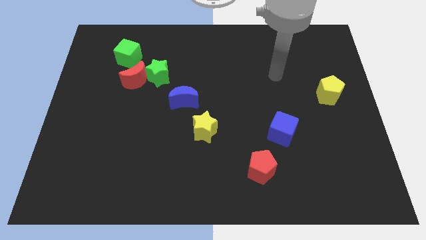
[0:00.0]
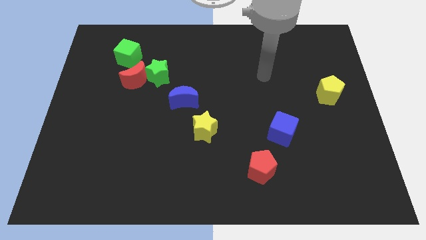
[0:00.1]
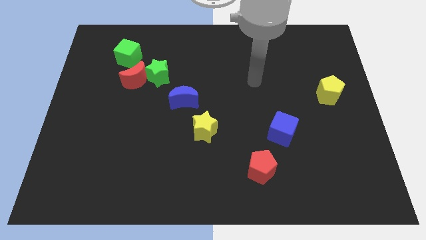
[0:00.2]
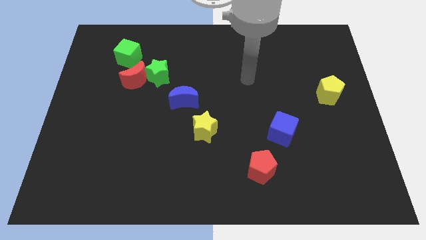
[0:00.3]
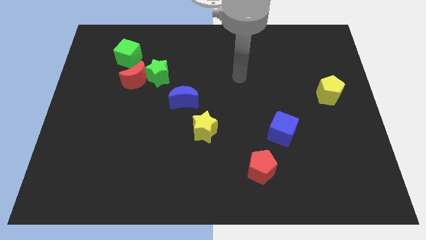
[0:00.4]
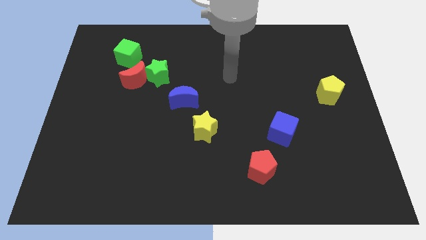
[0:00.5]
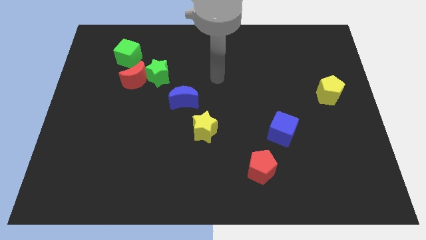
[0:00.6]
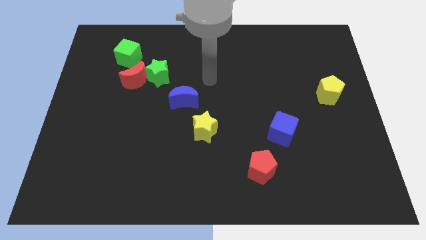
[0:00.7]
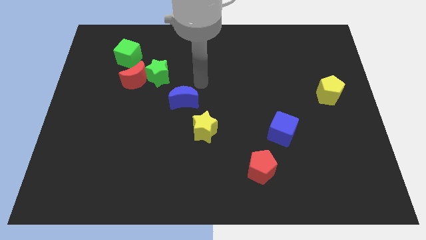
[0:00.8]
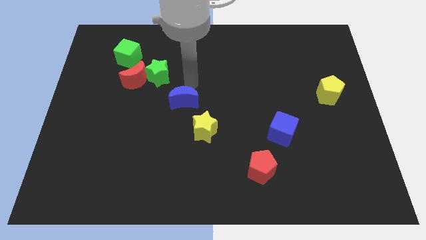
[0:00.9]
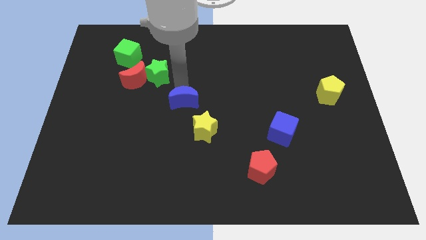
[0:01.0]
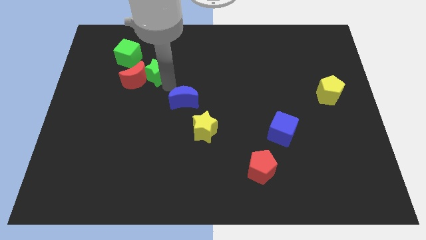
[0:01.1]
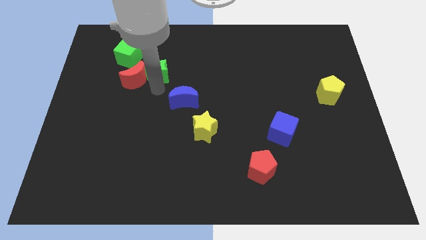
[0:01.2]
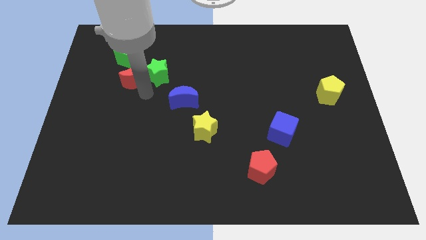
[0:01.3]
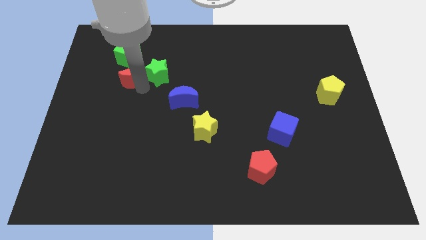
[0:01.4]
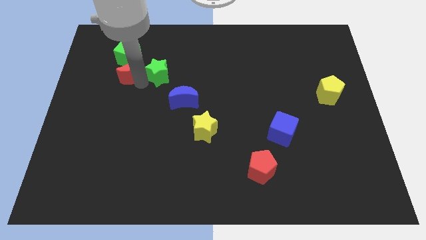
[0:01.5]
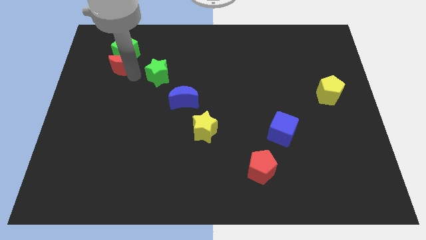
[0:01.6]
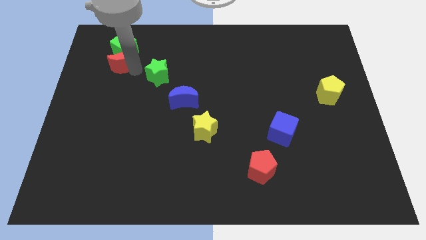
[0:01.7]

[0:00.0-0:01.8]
move the green star away from the red moon

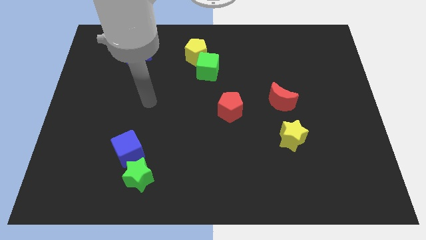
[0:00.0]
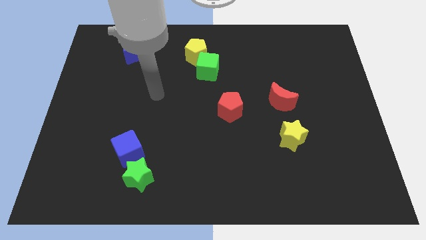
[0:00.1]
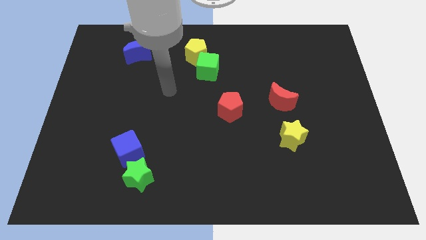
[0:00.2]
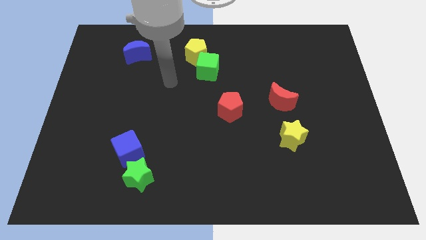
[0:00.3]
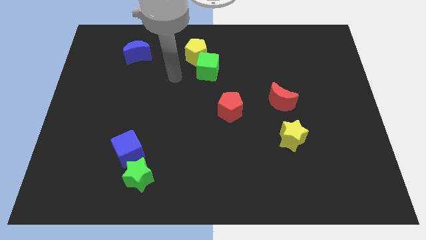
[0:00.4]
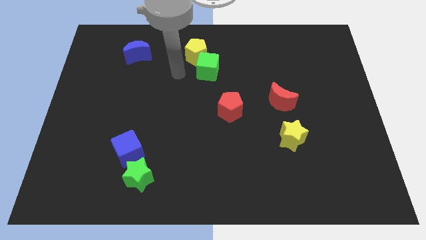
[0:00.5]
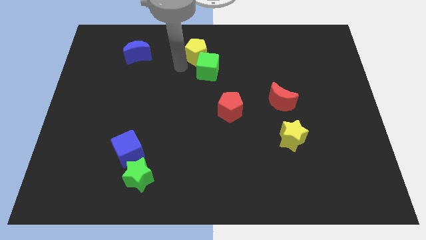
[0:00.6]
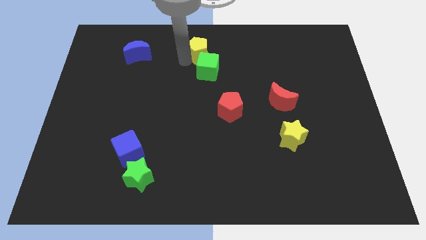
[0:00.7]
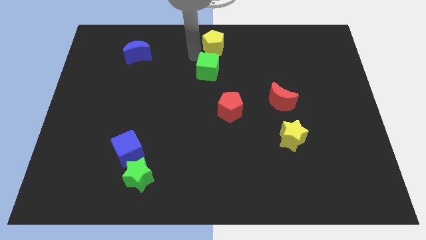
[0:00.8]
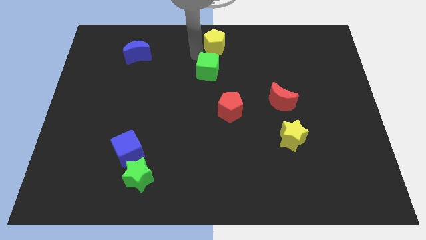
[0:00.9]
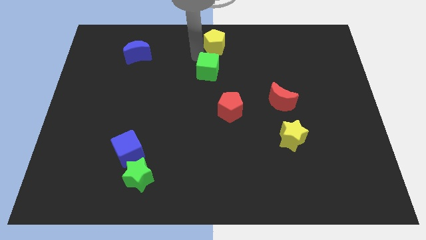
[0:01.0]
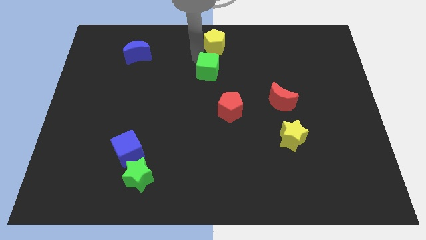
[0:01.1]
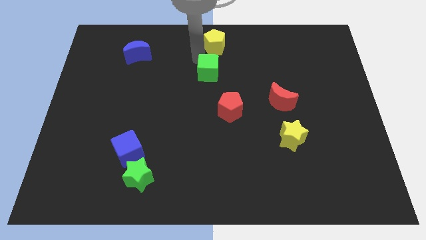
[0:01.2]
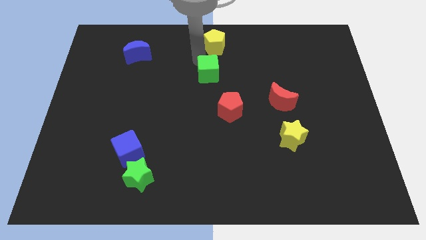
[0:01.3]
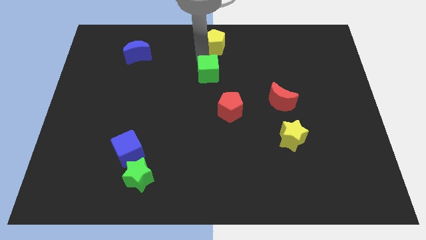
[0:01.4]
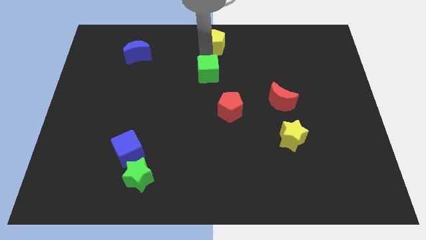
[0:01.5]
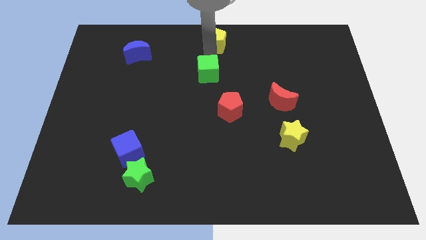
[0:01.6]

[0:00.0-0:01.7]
pull the green cube apart from the yellow pentagon

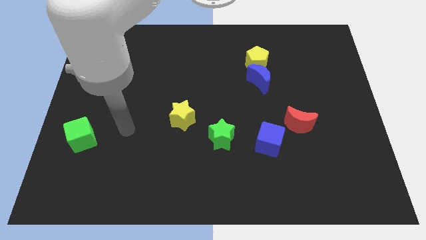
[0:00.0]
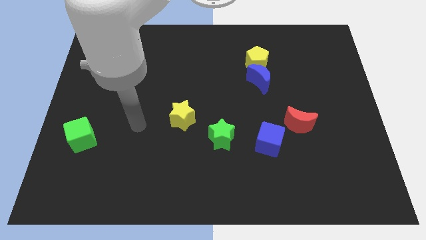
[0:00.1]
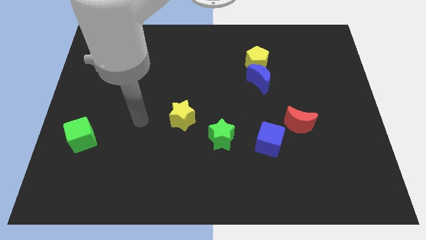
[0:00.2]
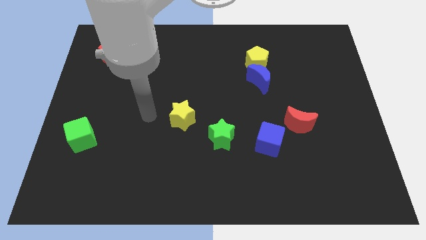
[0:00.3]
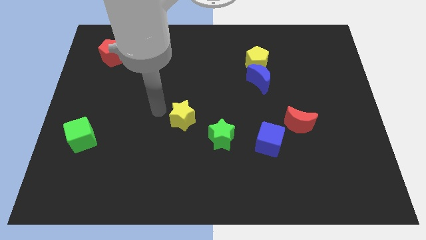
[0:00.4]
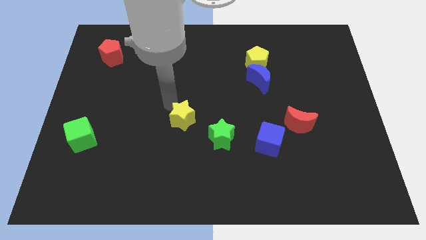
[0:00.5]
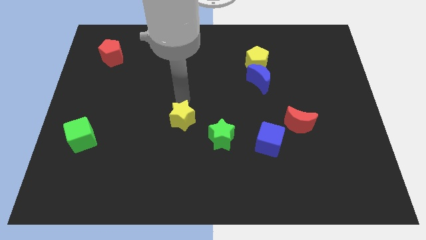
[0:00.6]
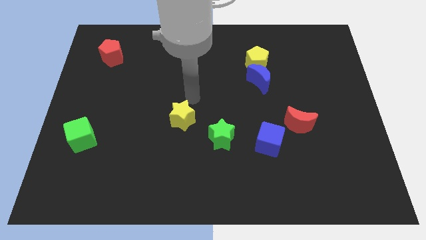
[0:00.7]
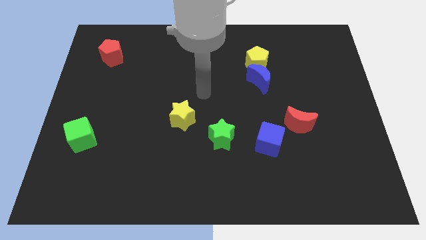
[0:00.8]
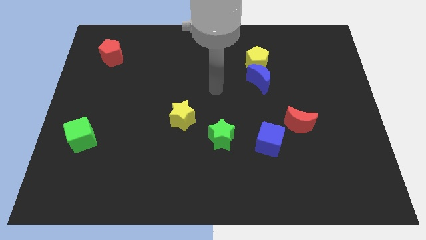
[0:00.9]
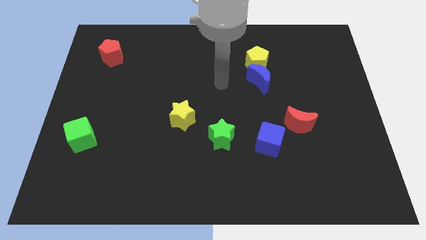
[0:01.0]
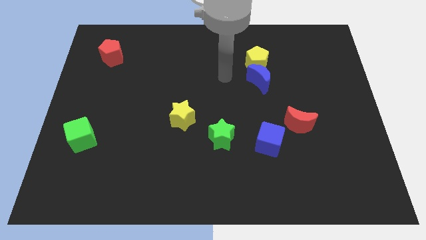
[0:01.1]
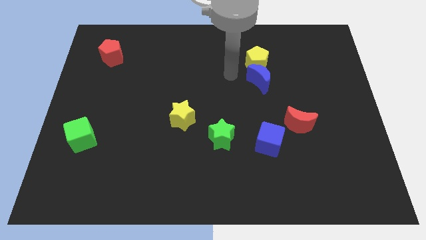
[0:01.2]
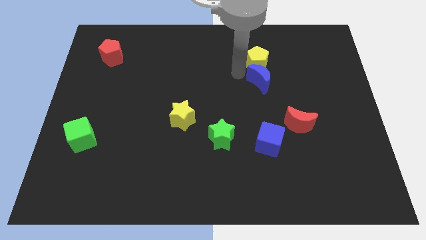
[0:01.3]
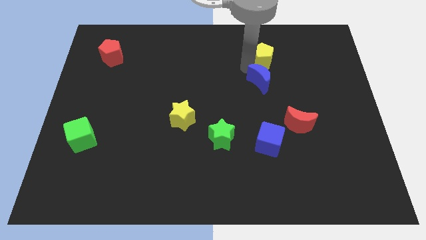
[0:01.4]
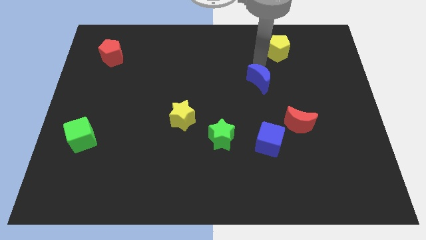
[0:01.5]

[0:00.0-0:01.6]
move the blue moon away from the yellow pentagon

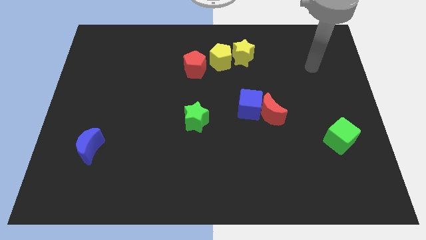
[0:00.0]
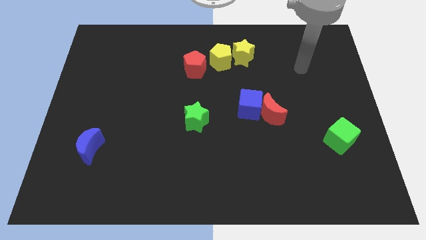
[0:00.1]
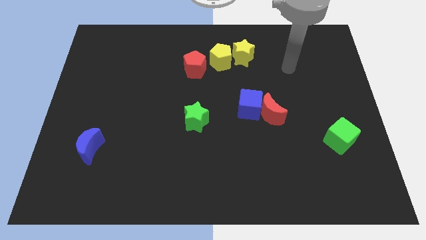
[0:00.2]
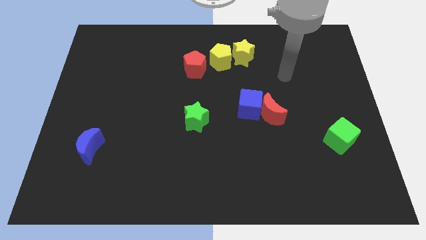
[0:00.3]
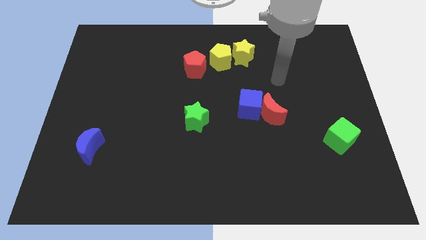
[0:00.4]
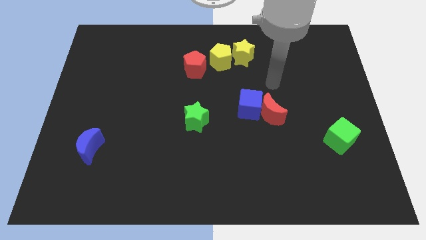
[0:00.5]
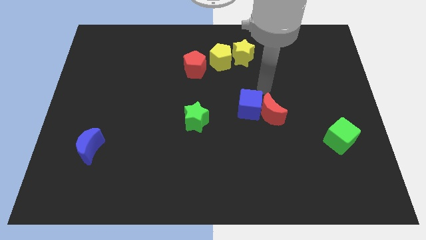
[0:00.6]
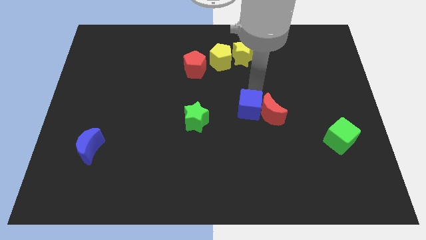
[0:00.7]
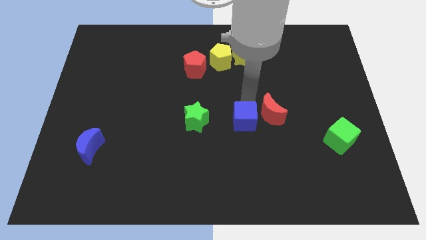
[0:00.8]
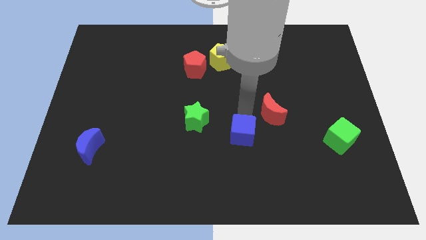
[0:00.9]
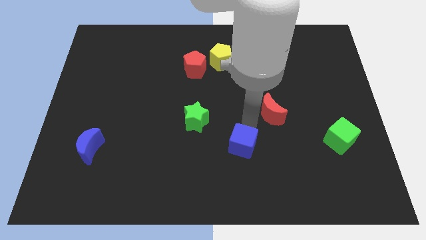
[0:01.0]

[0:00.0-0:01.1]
separate the red moon from the blue cube

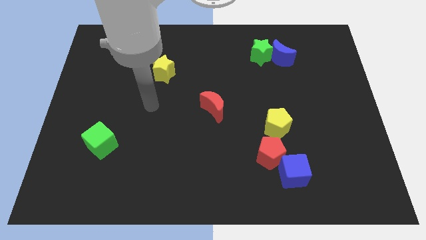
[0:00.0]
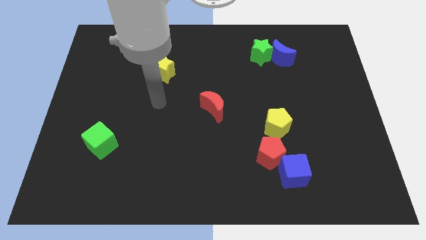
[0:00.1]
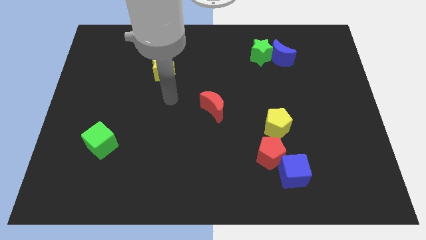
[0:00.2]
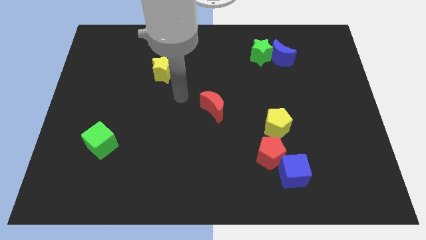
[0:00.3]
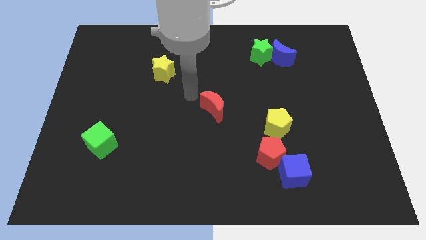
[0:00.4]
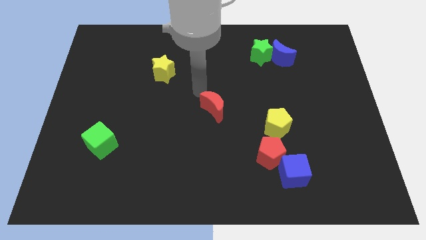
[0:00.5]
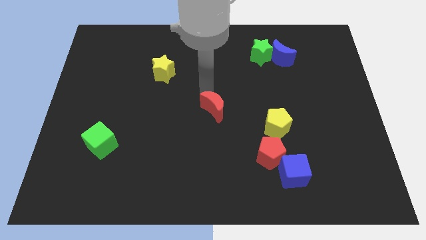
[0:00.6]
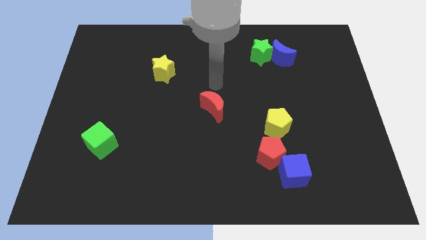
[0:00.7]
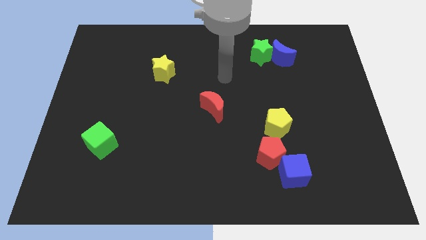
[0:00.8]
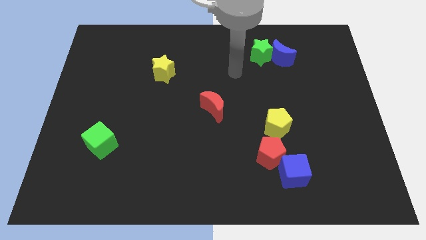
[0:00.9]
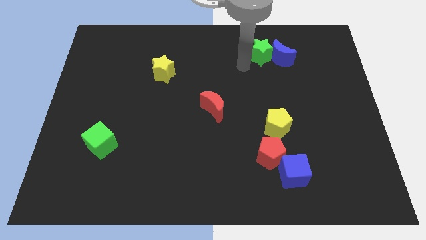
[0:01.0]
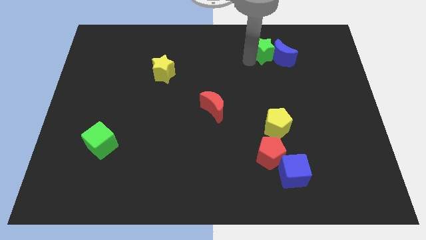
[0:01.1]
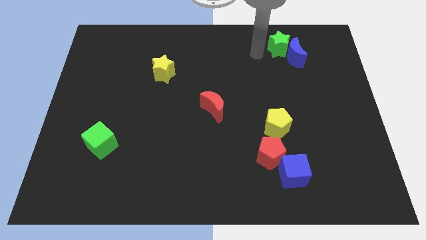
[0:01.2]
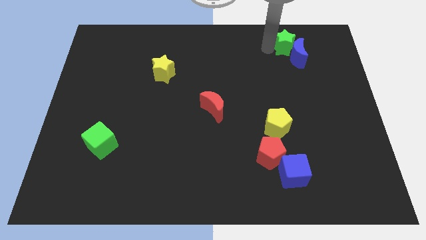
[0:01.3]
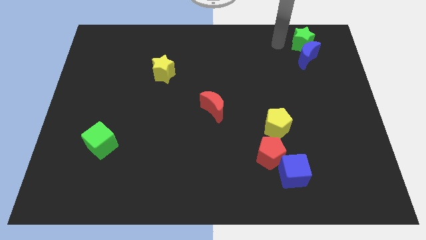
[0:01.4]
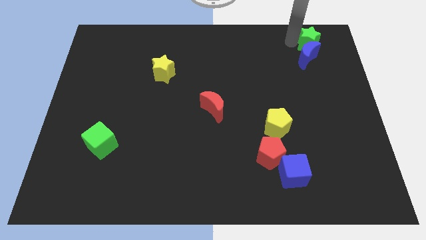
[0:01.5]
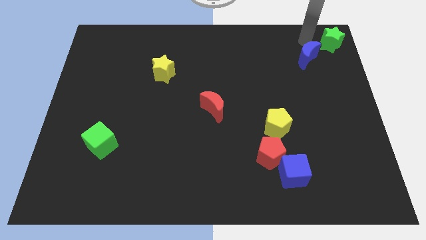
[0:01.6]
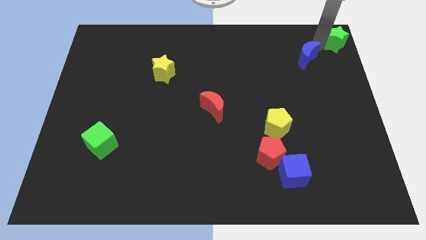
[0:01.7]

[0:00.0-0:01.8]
pull the blue moon apart from the green star

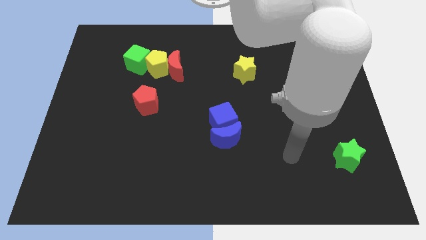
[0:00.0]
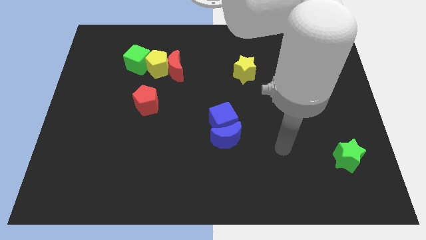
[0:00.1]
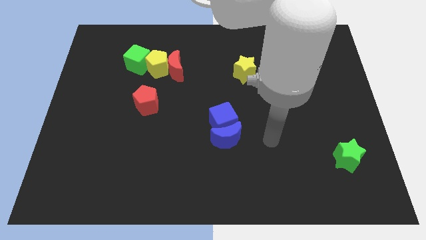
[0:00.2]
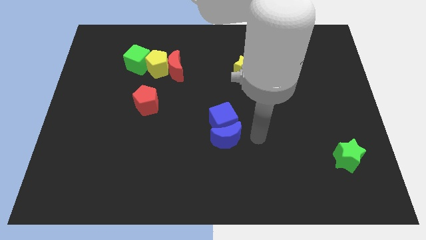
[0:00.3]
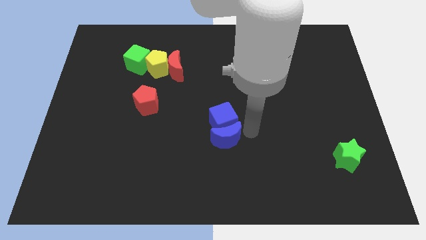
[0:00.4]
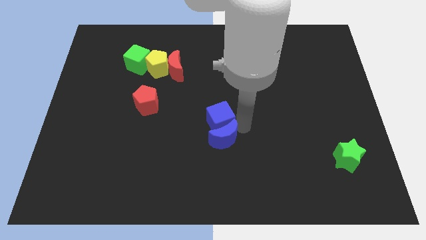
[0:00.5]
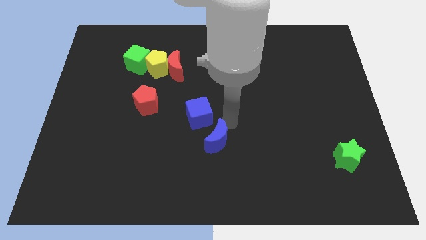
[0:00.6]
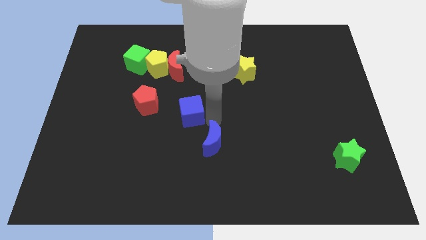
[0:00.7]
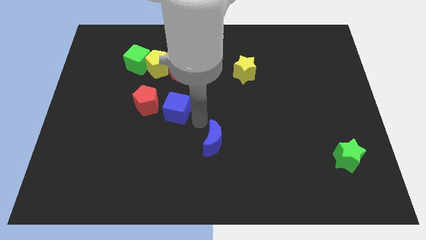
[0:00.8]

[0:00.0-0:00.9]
separate the blue moon from the blue cube

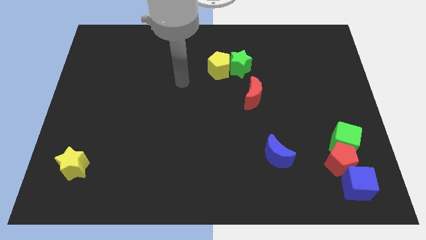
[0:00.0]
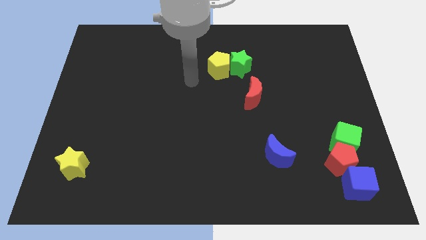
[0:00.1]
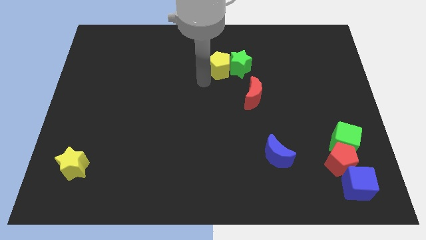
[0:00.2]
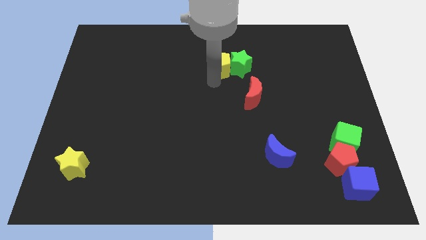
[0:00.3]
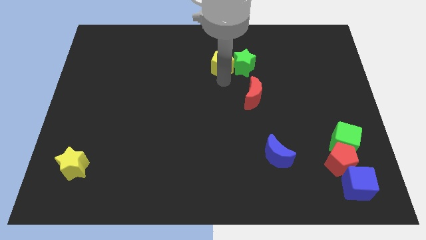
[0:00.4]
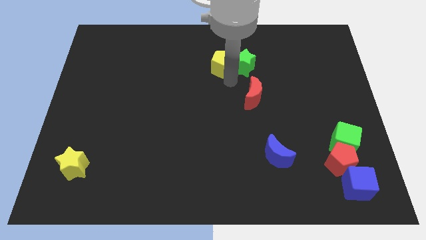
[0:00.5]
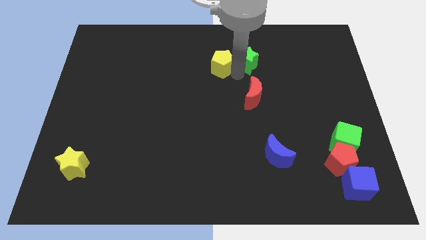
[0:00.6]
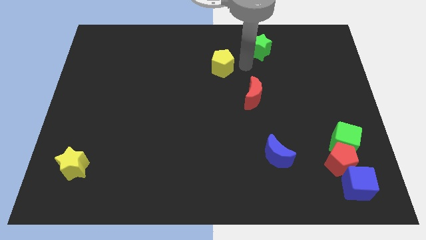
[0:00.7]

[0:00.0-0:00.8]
move the yellow pentagon away from the green star
